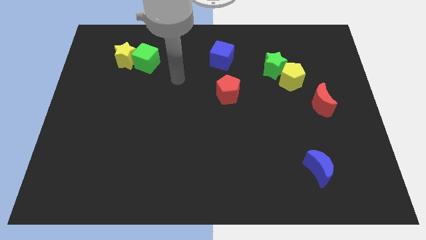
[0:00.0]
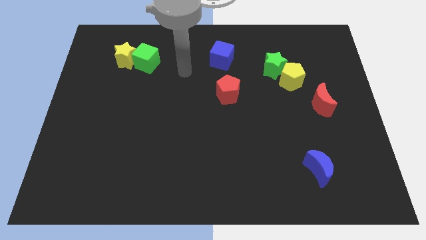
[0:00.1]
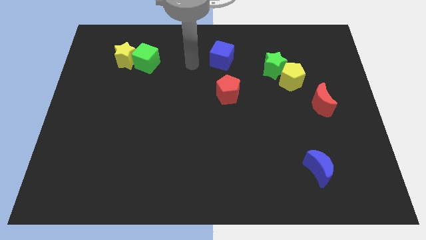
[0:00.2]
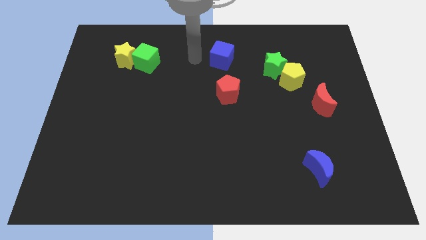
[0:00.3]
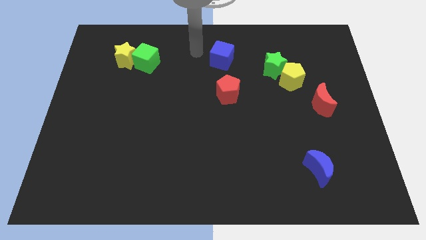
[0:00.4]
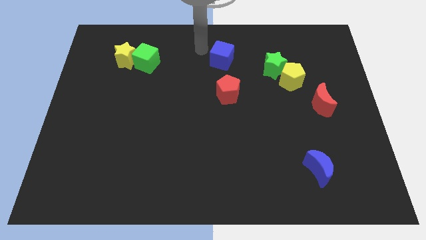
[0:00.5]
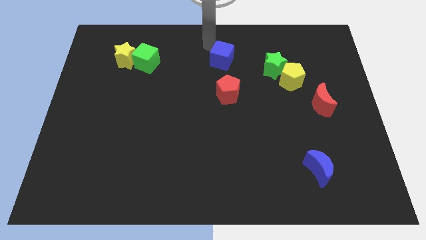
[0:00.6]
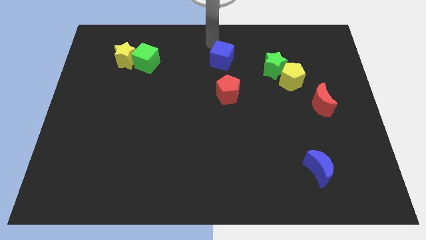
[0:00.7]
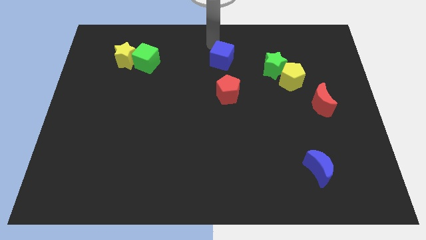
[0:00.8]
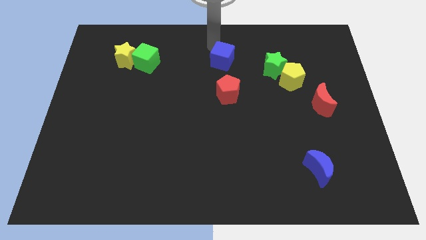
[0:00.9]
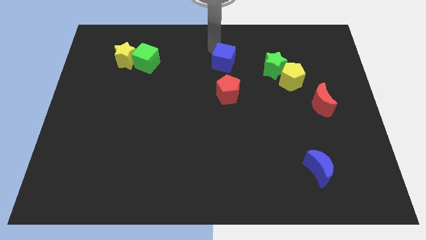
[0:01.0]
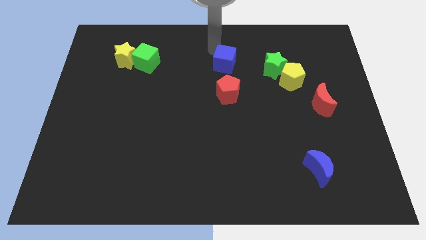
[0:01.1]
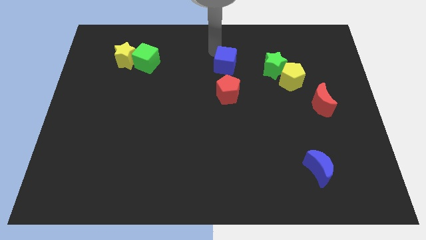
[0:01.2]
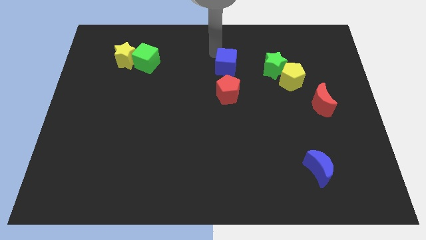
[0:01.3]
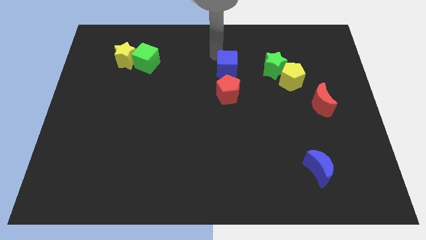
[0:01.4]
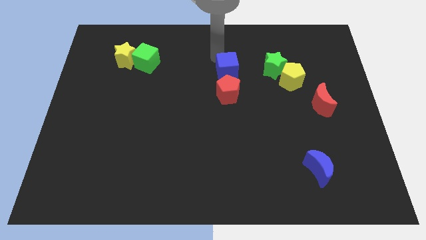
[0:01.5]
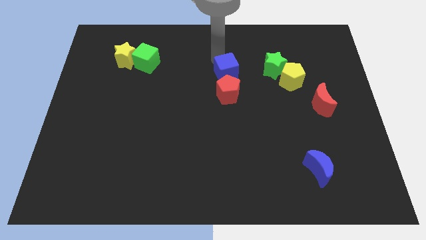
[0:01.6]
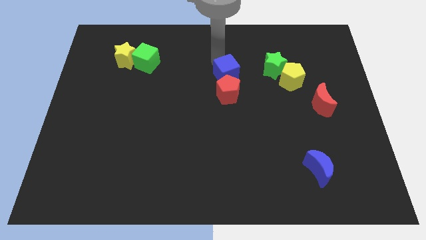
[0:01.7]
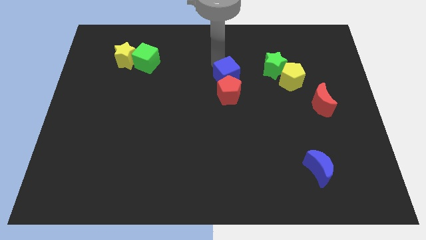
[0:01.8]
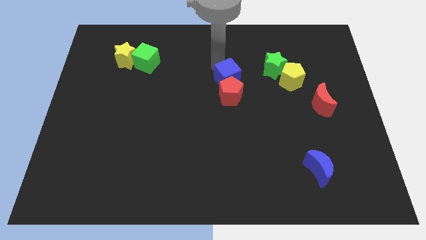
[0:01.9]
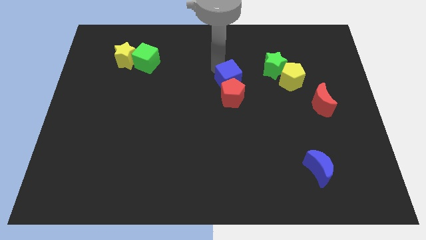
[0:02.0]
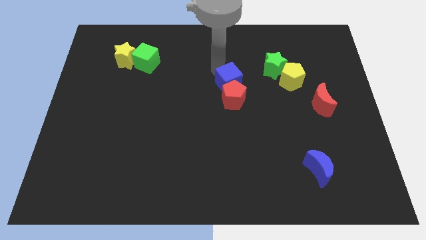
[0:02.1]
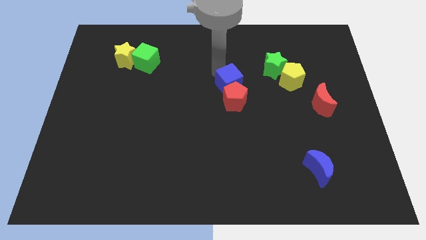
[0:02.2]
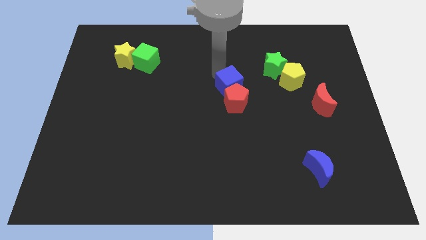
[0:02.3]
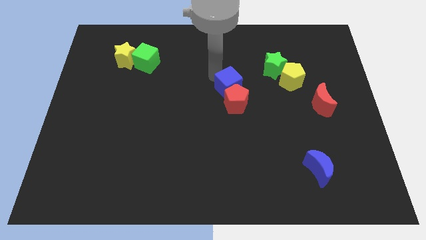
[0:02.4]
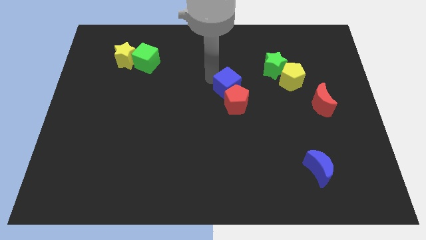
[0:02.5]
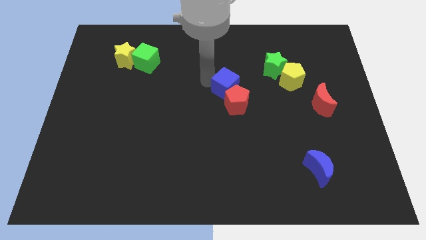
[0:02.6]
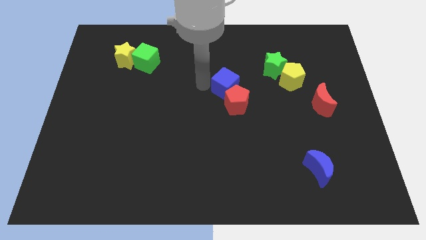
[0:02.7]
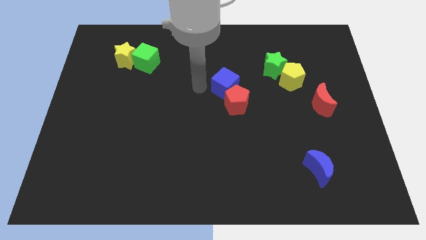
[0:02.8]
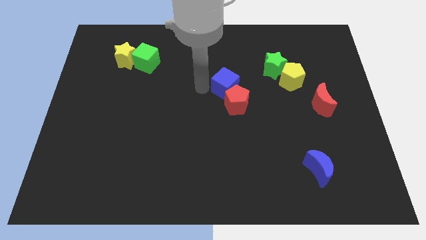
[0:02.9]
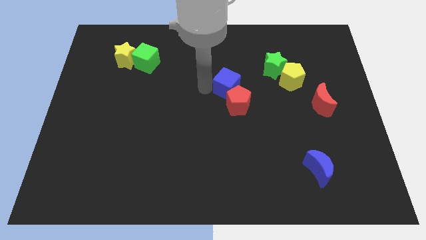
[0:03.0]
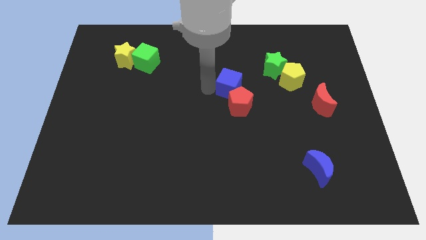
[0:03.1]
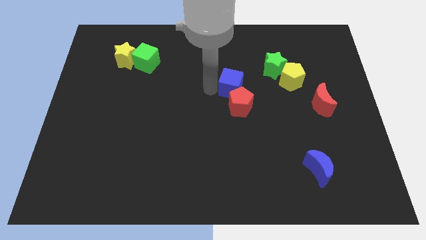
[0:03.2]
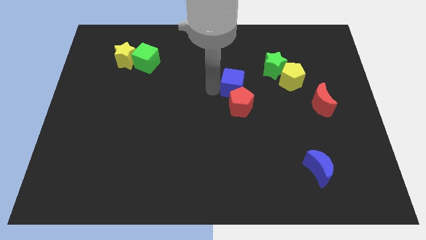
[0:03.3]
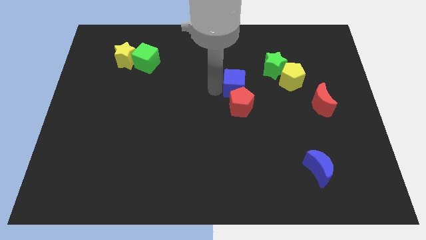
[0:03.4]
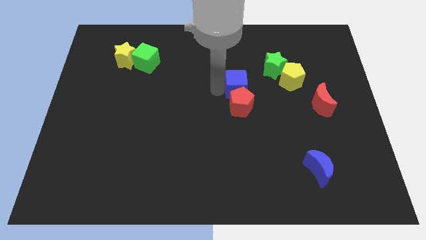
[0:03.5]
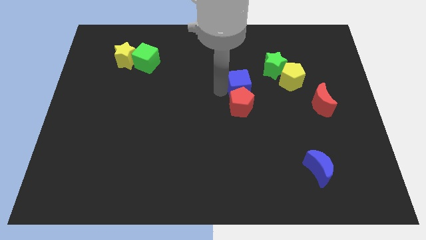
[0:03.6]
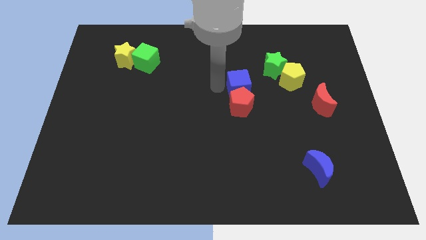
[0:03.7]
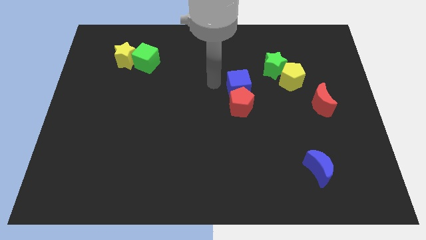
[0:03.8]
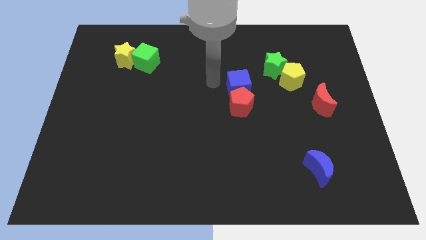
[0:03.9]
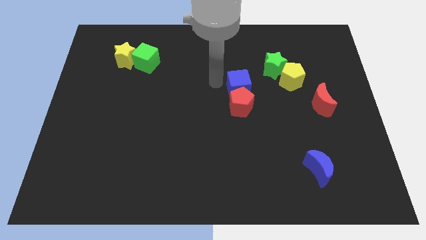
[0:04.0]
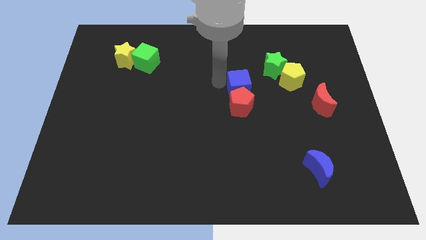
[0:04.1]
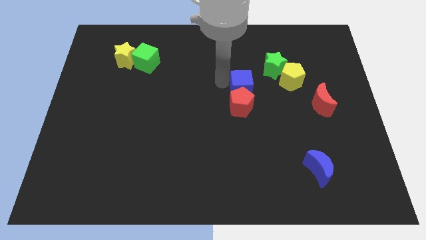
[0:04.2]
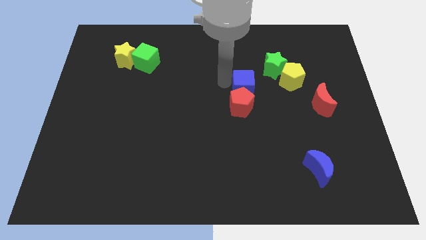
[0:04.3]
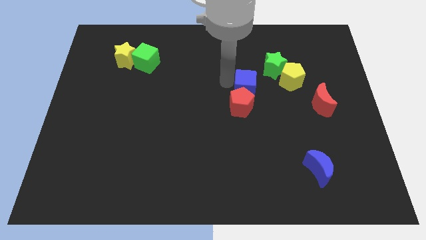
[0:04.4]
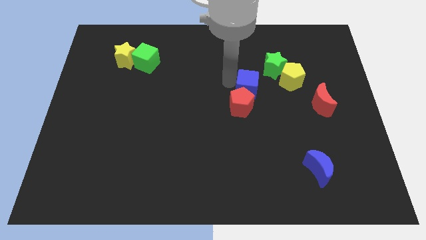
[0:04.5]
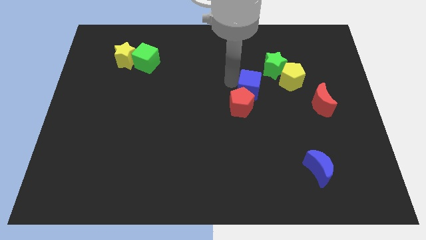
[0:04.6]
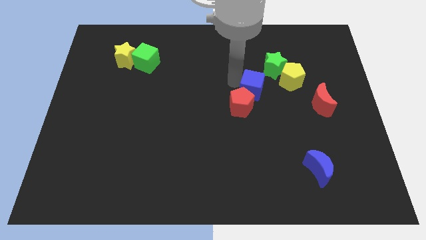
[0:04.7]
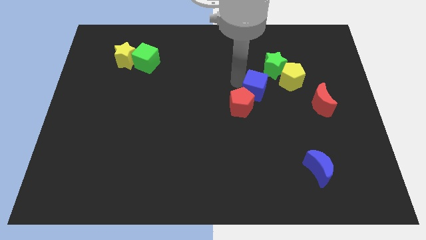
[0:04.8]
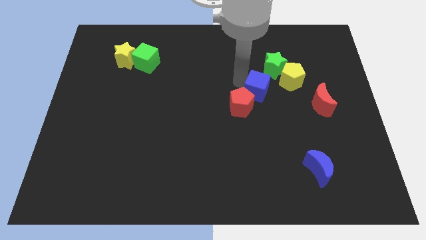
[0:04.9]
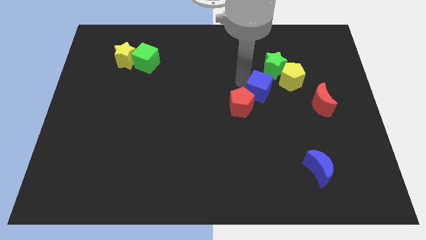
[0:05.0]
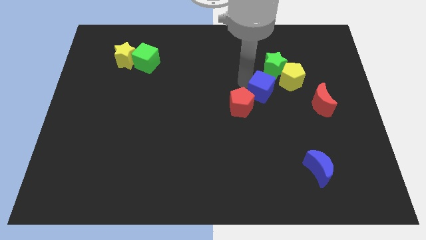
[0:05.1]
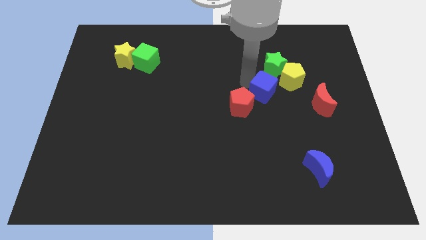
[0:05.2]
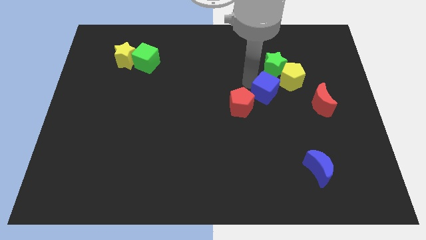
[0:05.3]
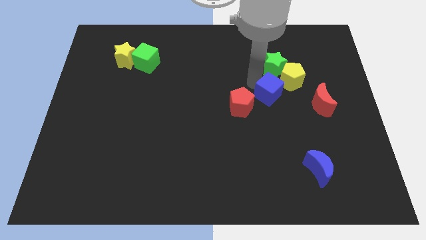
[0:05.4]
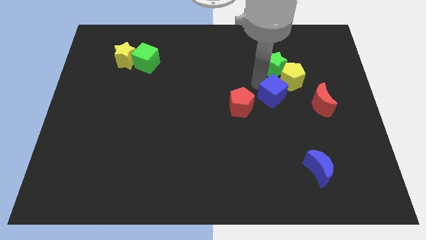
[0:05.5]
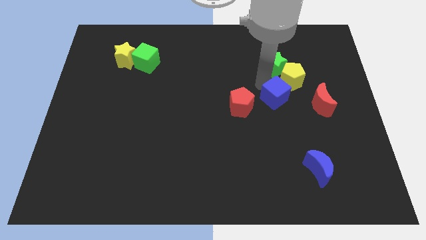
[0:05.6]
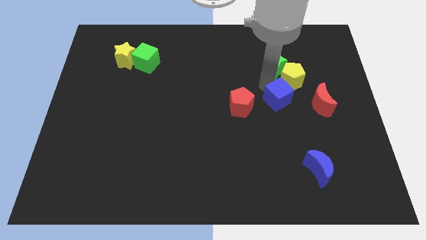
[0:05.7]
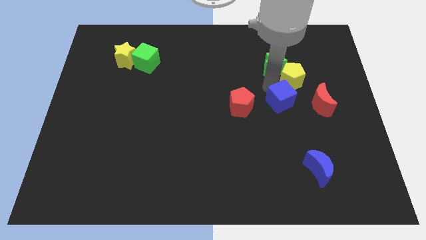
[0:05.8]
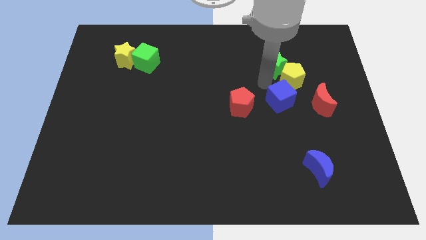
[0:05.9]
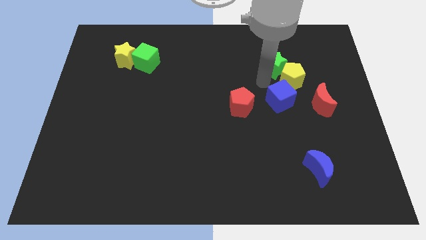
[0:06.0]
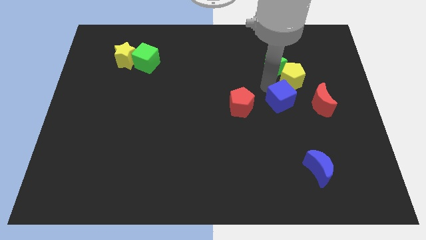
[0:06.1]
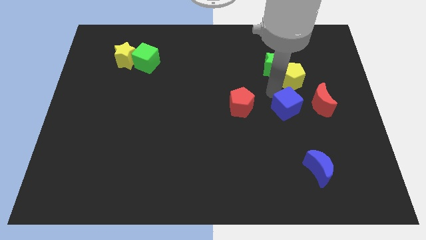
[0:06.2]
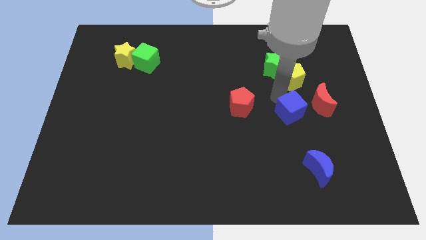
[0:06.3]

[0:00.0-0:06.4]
push the blue cube diagonally down and to the left of the red moon

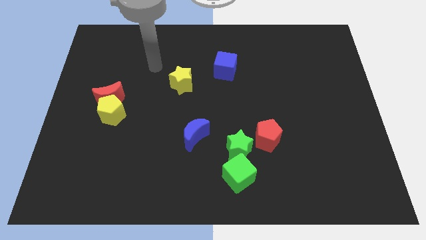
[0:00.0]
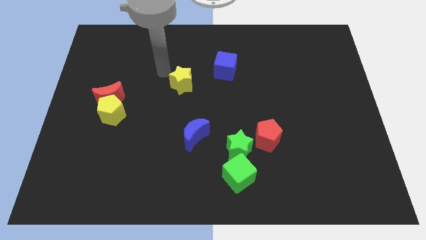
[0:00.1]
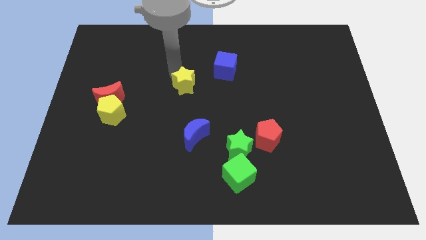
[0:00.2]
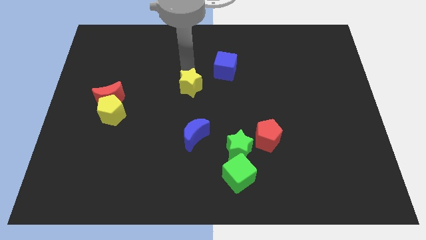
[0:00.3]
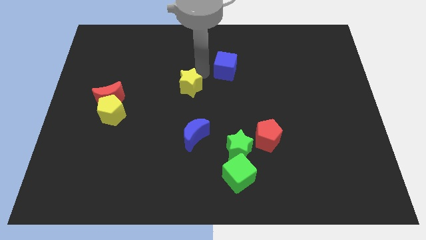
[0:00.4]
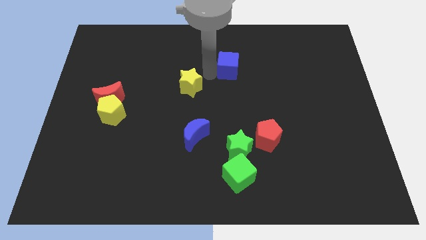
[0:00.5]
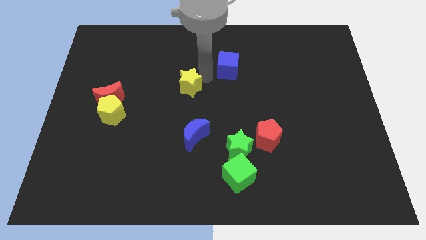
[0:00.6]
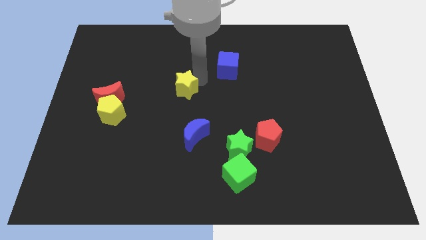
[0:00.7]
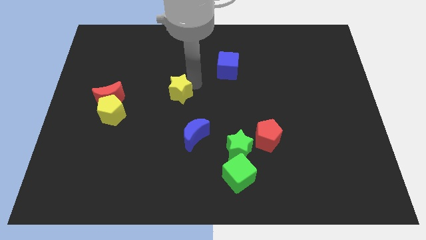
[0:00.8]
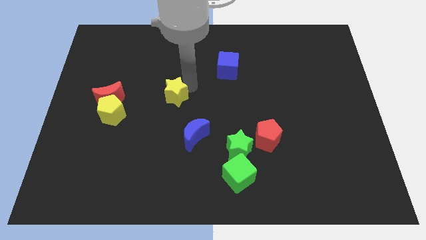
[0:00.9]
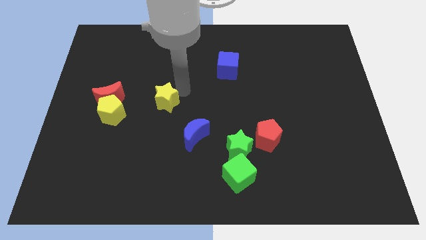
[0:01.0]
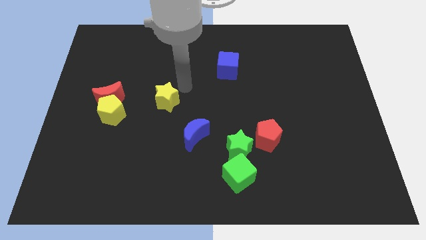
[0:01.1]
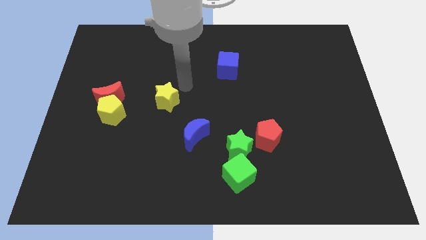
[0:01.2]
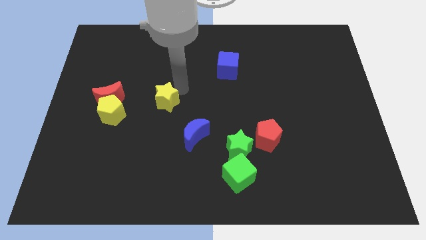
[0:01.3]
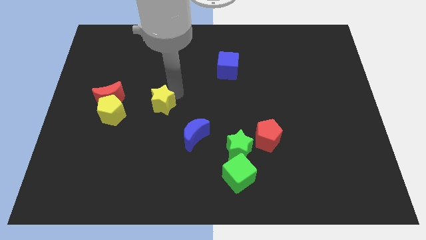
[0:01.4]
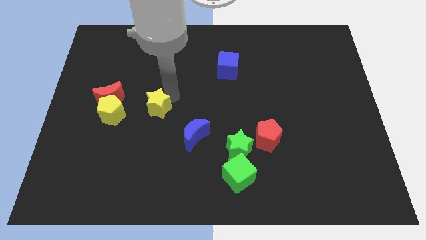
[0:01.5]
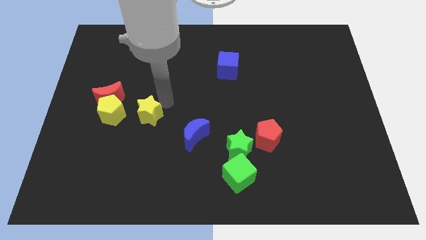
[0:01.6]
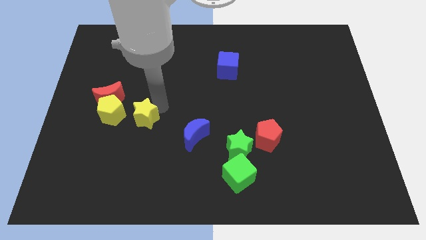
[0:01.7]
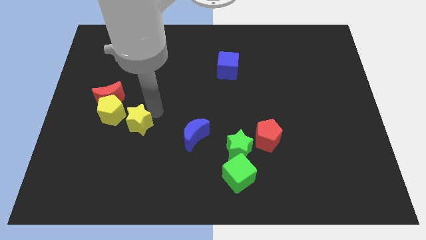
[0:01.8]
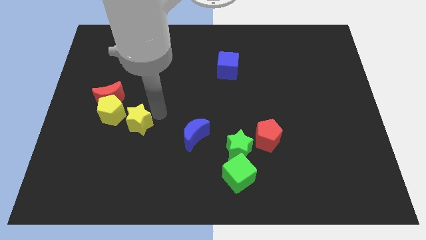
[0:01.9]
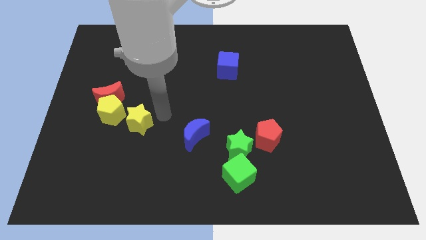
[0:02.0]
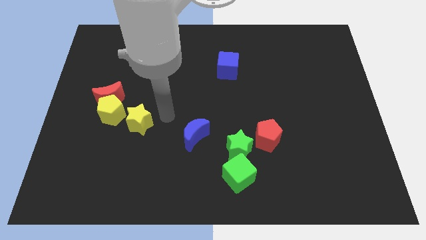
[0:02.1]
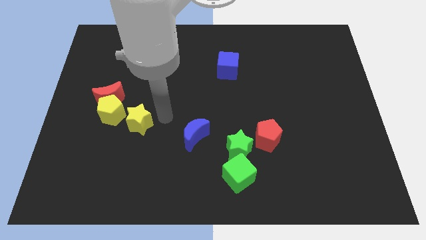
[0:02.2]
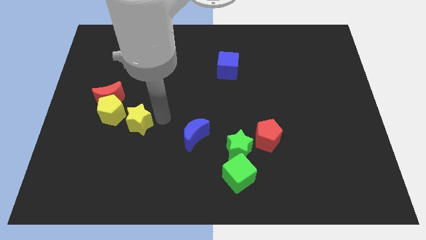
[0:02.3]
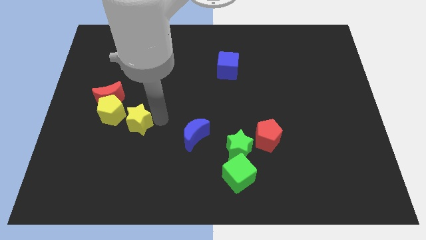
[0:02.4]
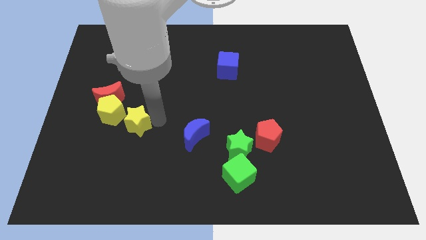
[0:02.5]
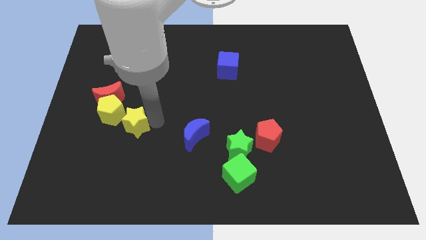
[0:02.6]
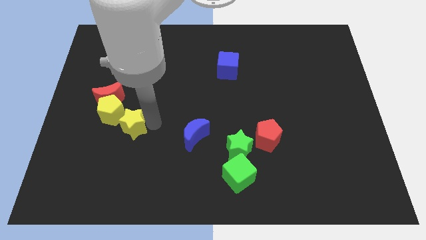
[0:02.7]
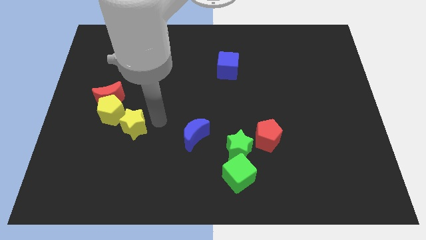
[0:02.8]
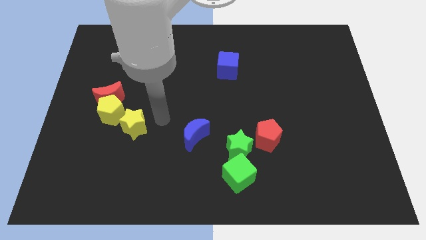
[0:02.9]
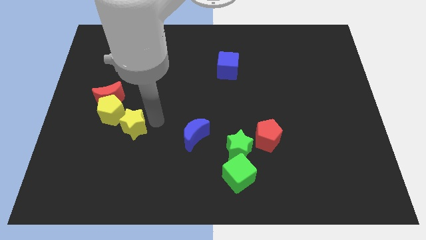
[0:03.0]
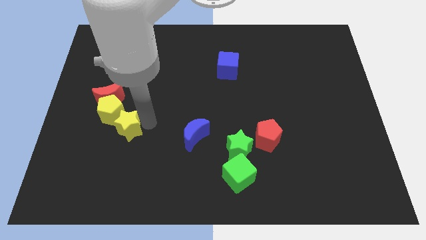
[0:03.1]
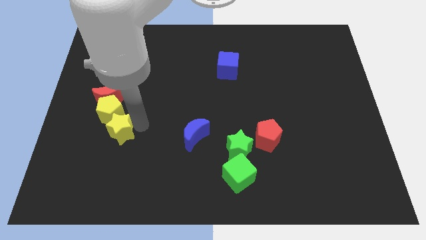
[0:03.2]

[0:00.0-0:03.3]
slide the yellow star to the bottom of the red moon
